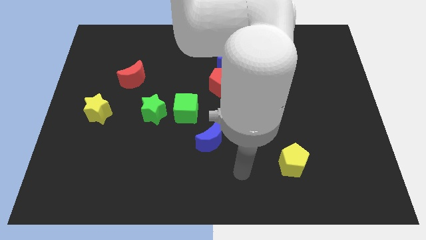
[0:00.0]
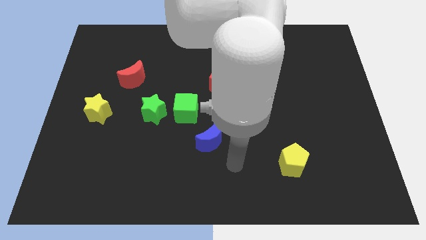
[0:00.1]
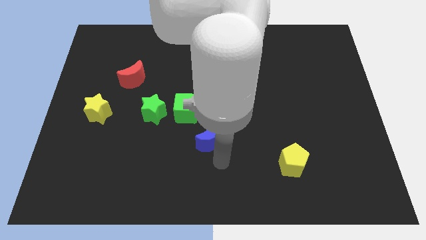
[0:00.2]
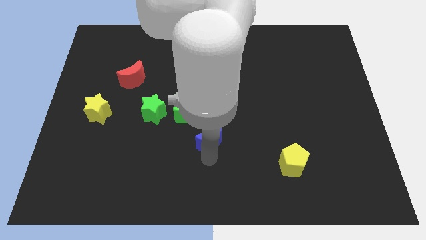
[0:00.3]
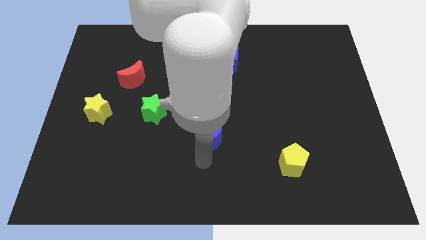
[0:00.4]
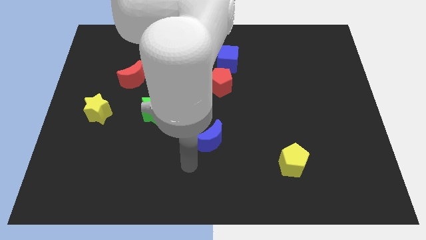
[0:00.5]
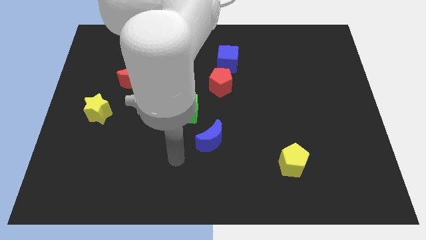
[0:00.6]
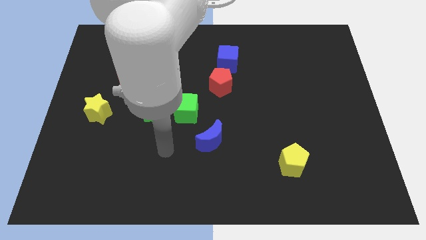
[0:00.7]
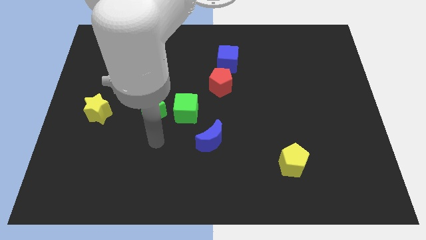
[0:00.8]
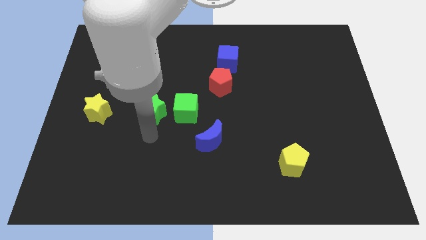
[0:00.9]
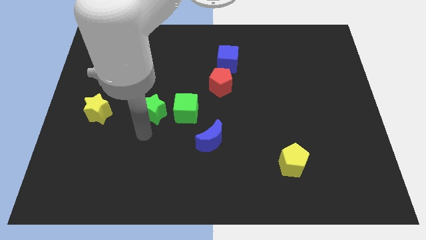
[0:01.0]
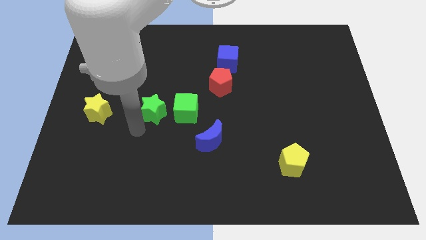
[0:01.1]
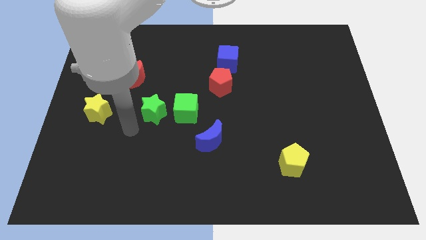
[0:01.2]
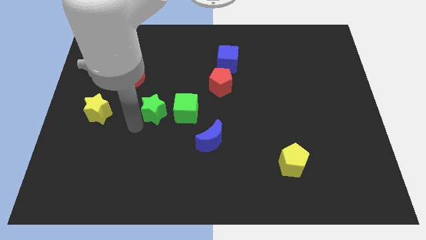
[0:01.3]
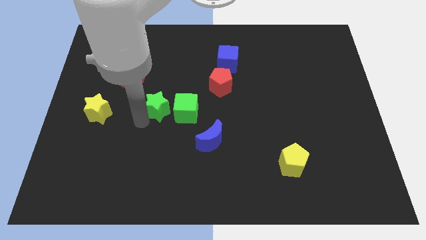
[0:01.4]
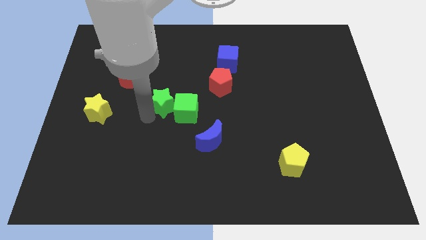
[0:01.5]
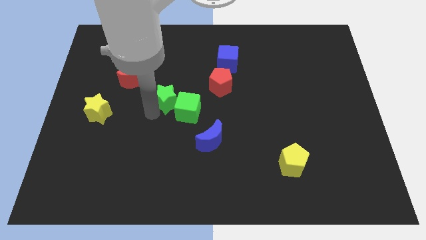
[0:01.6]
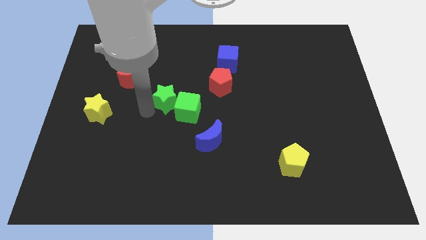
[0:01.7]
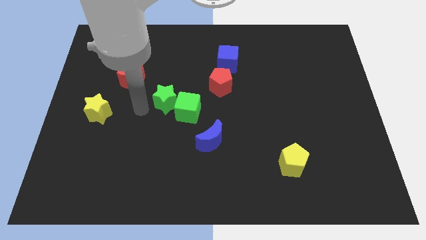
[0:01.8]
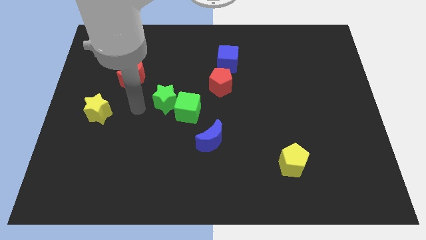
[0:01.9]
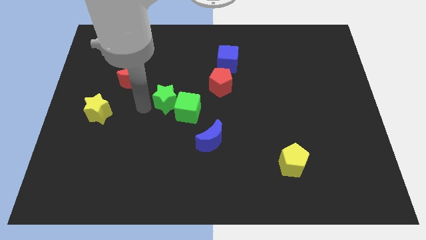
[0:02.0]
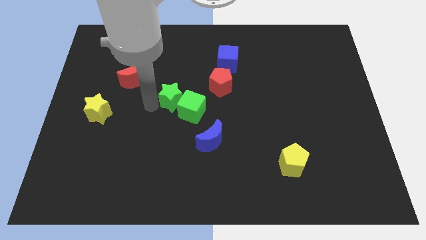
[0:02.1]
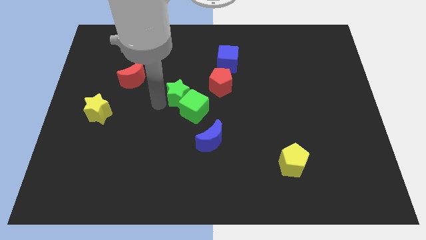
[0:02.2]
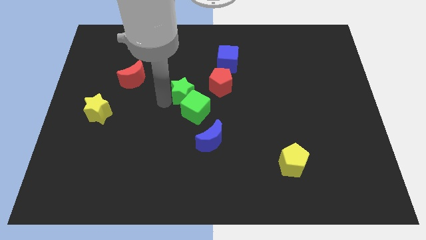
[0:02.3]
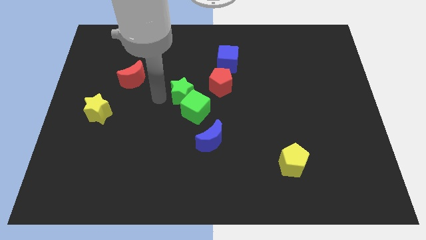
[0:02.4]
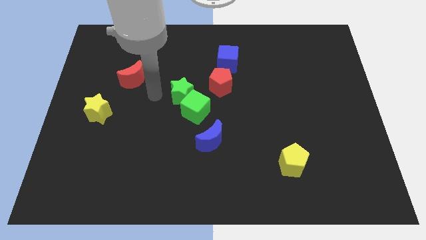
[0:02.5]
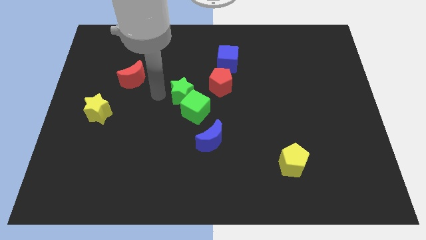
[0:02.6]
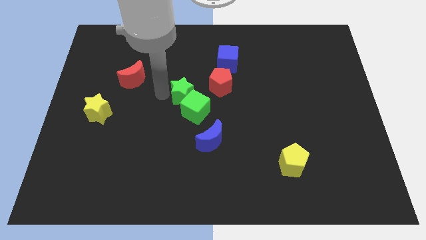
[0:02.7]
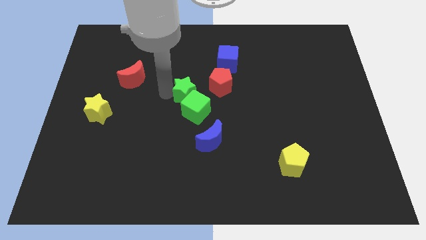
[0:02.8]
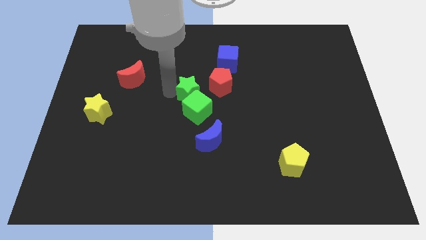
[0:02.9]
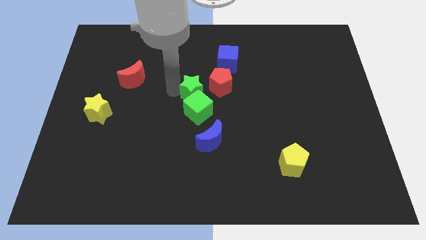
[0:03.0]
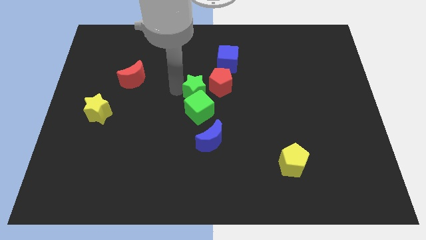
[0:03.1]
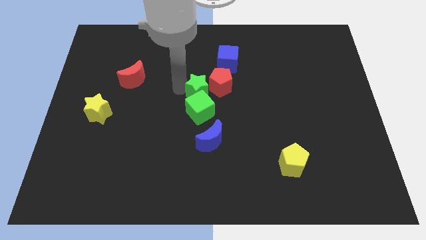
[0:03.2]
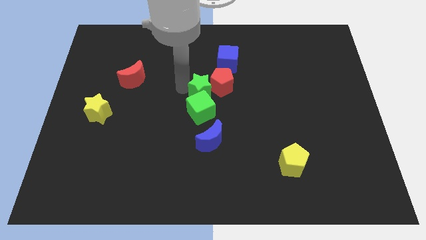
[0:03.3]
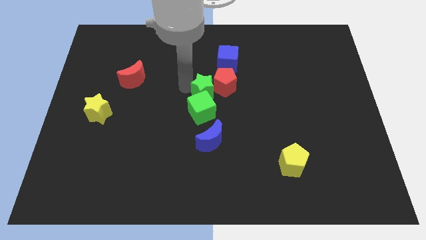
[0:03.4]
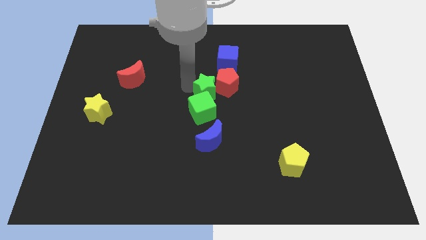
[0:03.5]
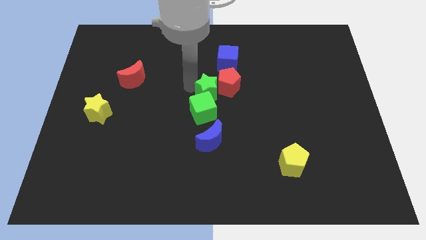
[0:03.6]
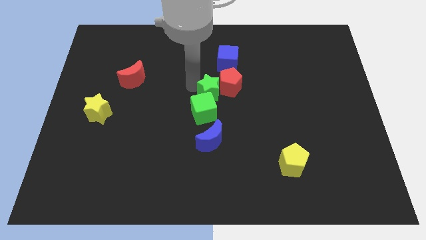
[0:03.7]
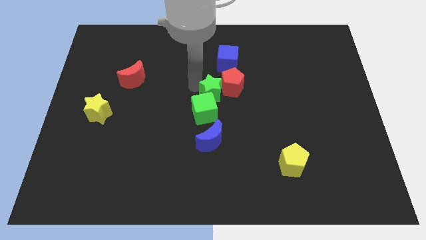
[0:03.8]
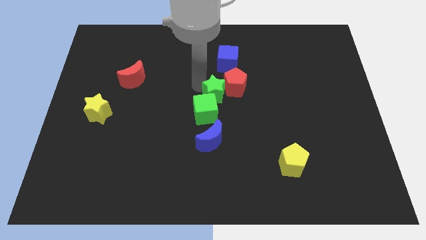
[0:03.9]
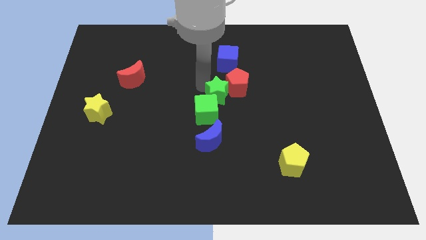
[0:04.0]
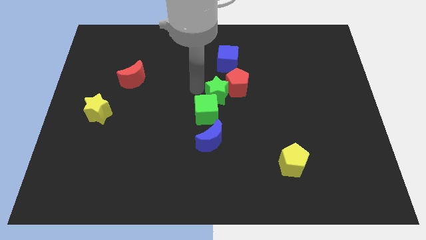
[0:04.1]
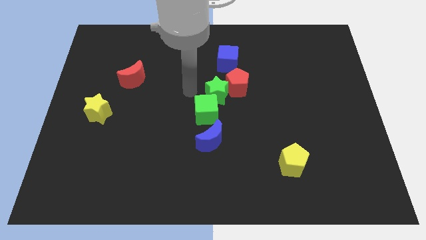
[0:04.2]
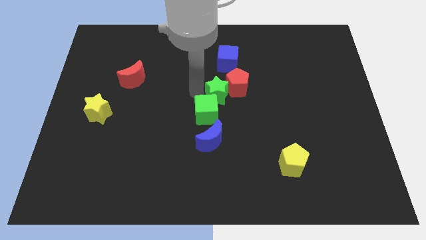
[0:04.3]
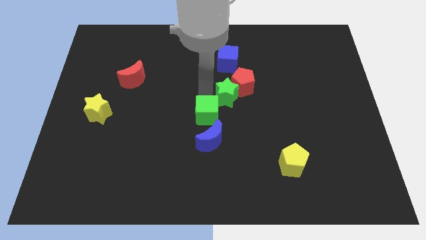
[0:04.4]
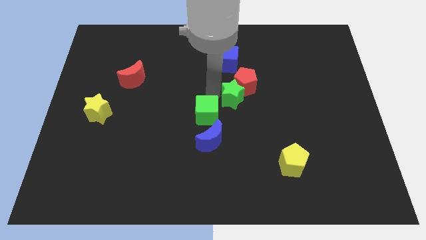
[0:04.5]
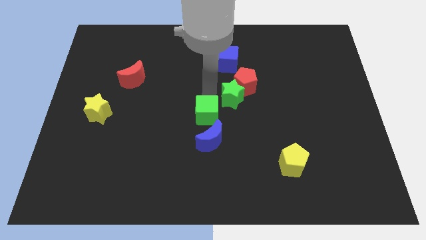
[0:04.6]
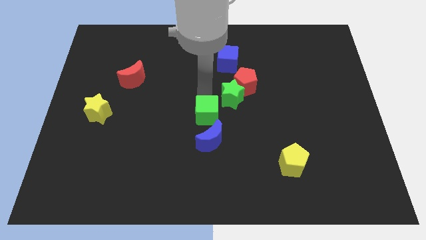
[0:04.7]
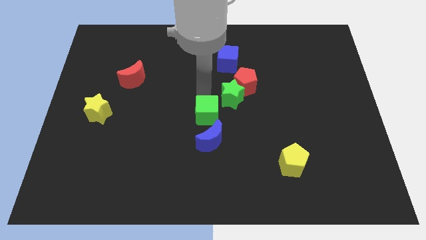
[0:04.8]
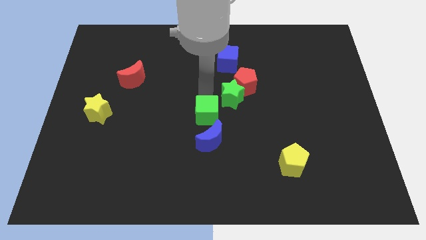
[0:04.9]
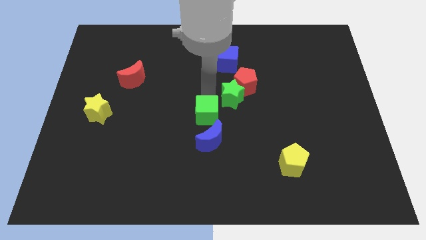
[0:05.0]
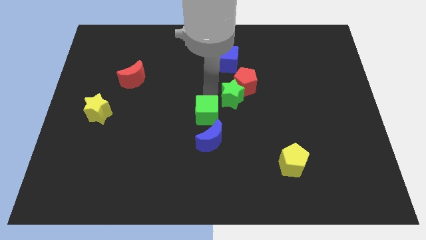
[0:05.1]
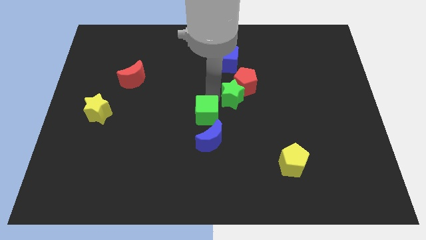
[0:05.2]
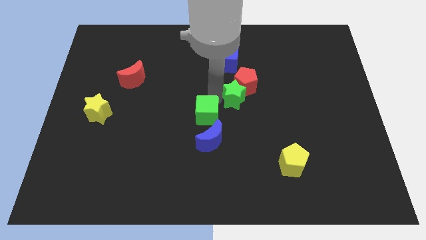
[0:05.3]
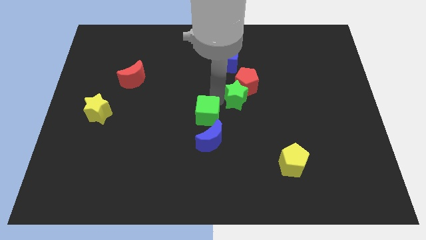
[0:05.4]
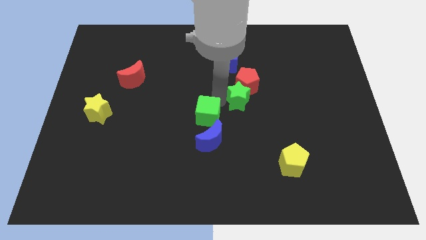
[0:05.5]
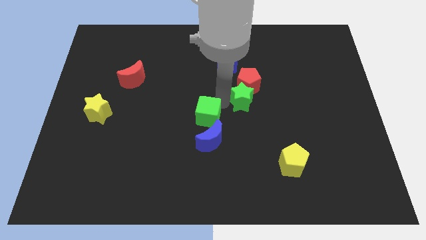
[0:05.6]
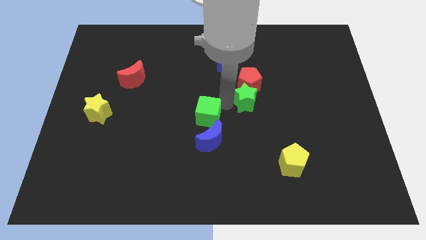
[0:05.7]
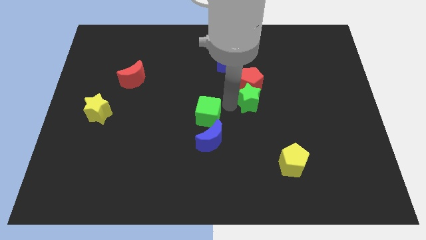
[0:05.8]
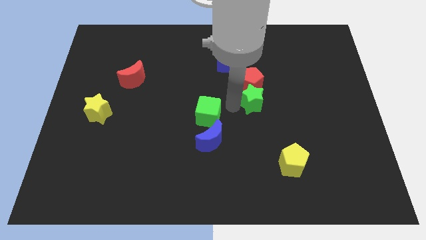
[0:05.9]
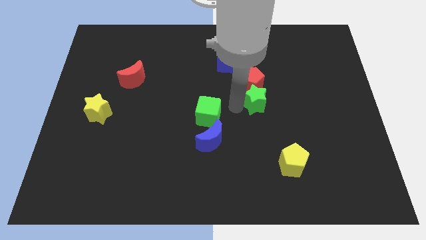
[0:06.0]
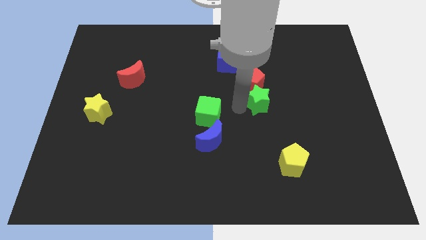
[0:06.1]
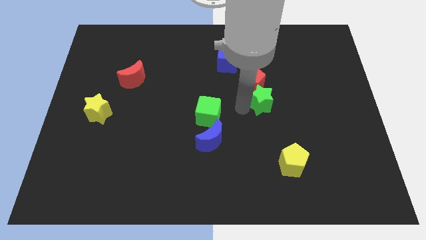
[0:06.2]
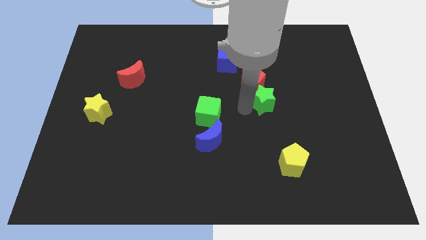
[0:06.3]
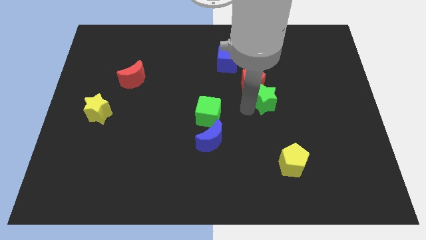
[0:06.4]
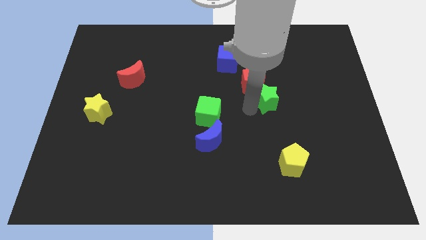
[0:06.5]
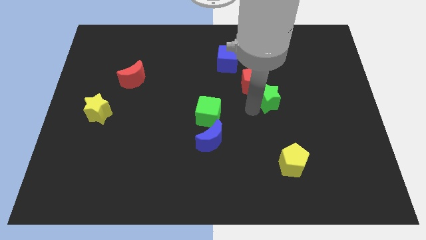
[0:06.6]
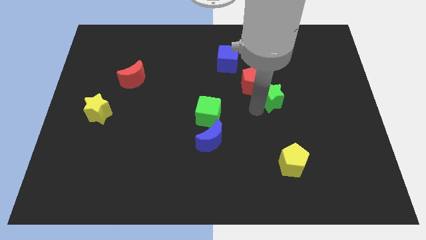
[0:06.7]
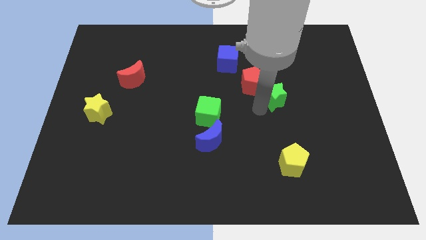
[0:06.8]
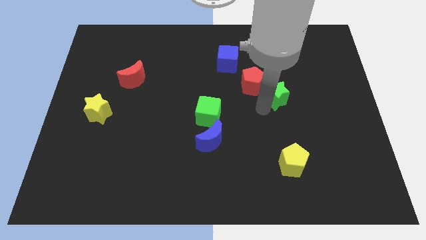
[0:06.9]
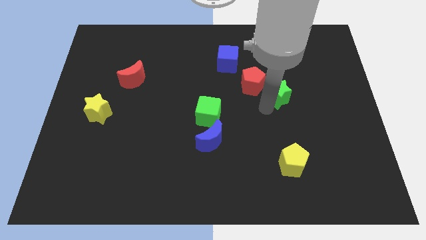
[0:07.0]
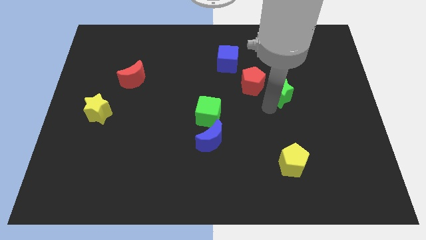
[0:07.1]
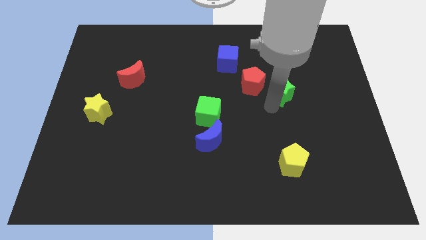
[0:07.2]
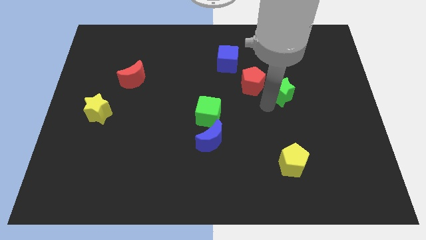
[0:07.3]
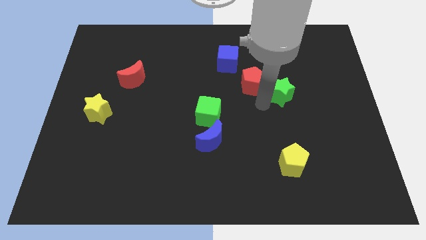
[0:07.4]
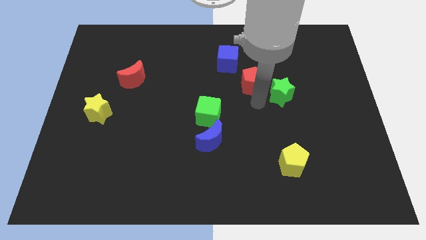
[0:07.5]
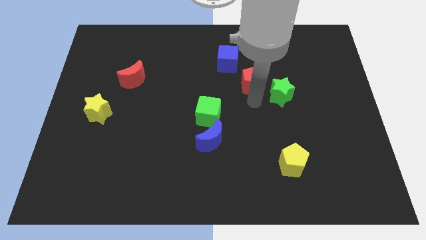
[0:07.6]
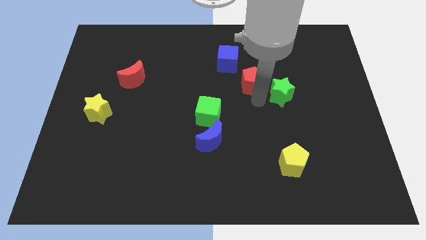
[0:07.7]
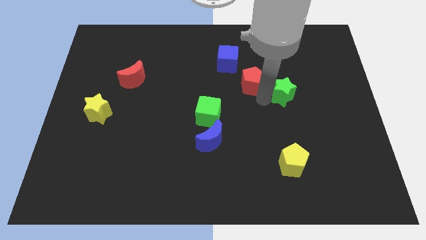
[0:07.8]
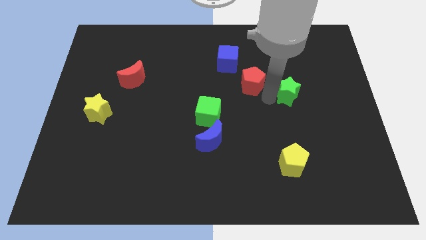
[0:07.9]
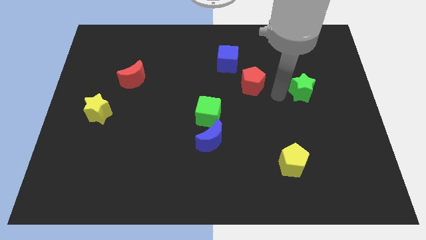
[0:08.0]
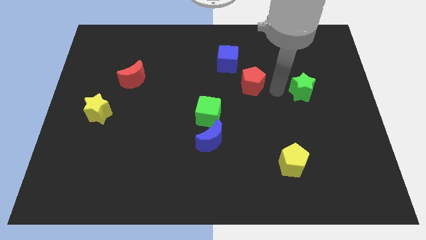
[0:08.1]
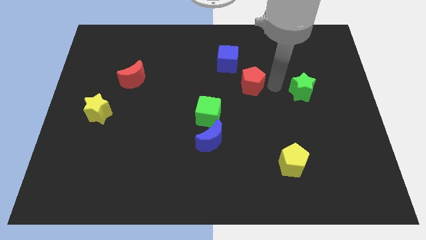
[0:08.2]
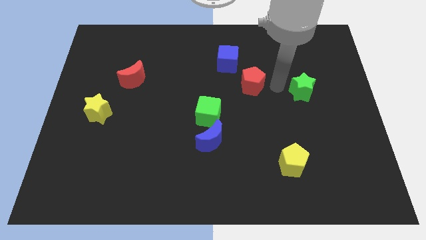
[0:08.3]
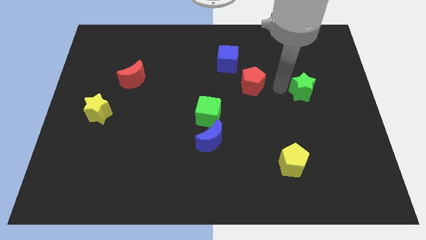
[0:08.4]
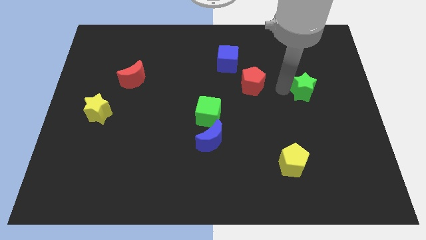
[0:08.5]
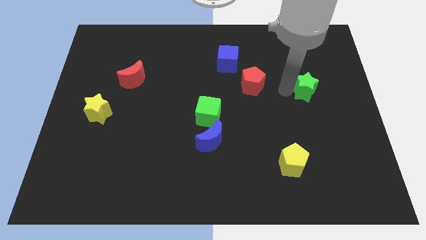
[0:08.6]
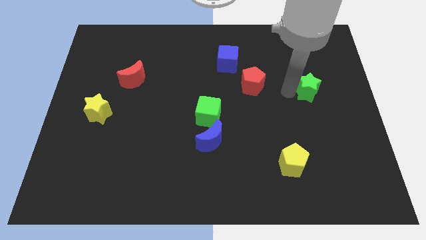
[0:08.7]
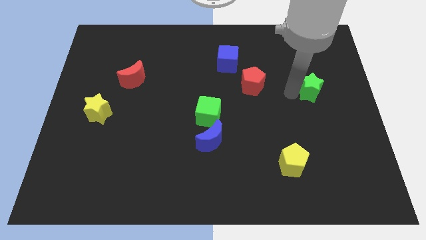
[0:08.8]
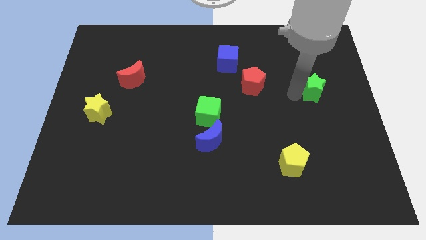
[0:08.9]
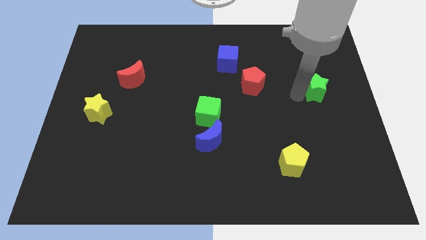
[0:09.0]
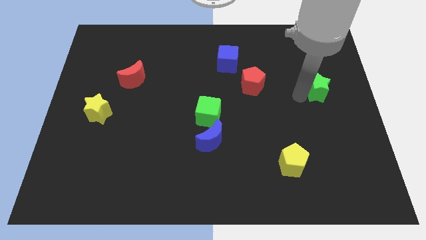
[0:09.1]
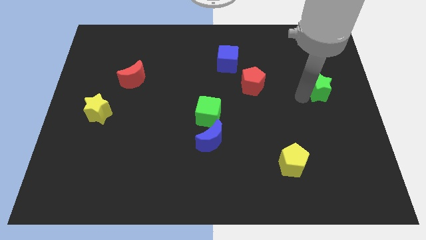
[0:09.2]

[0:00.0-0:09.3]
put the green star to the center right
